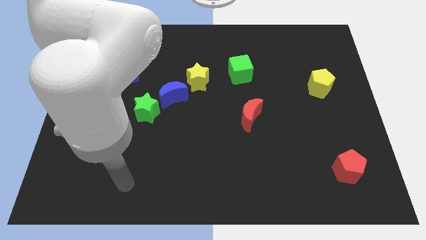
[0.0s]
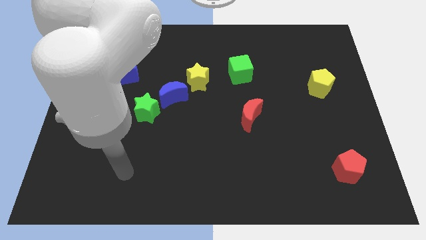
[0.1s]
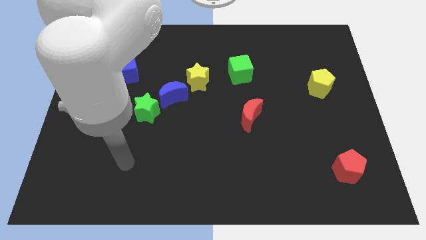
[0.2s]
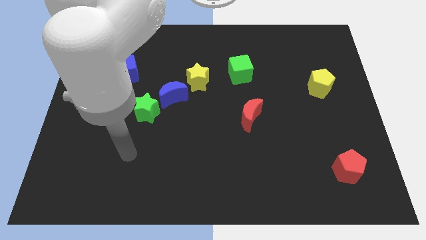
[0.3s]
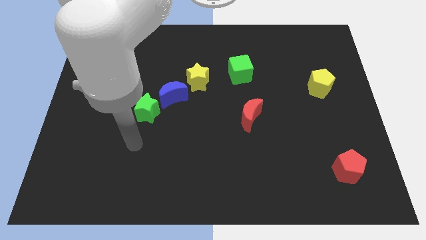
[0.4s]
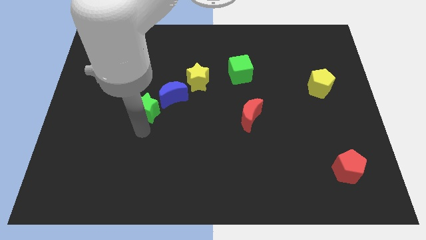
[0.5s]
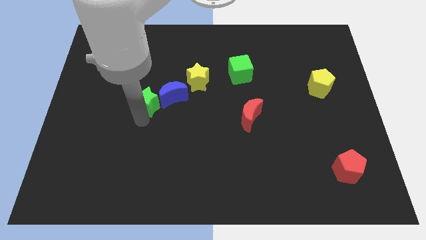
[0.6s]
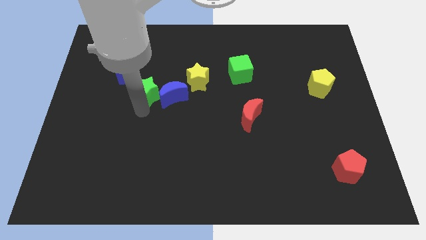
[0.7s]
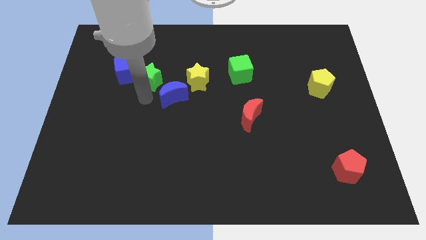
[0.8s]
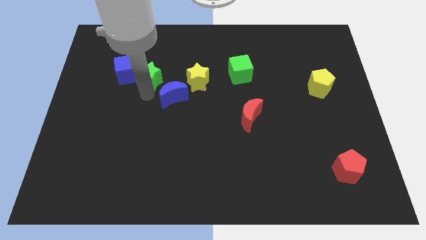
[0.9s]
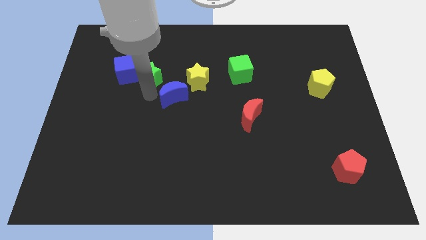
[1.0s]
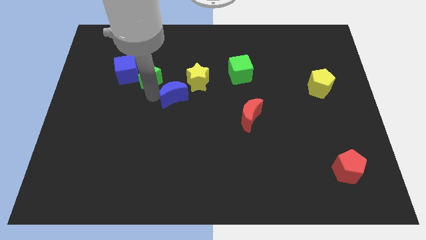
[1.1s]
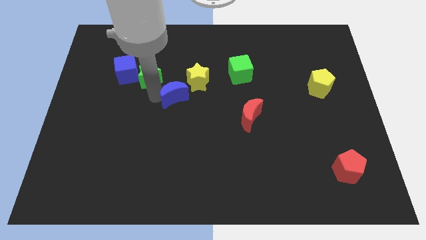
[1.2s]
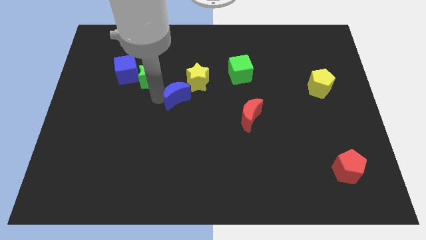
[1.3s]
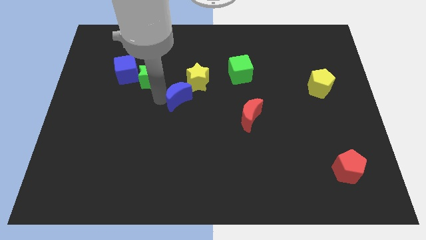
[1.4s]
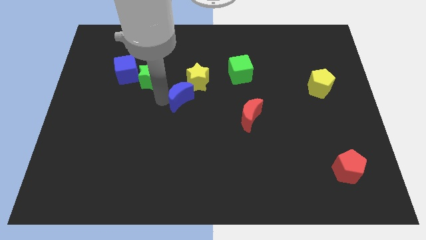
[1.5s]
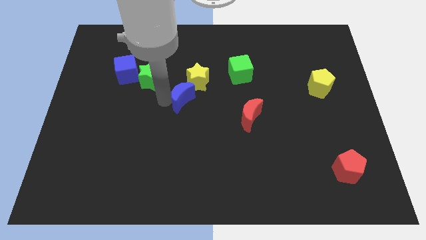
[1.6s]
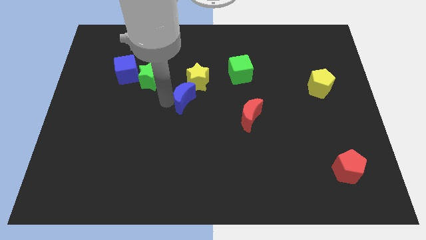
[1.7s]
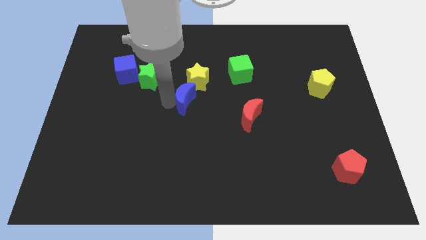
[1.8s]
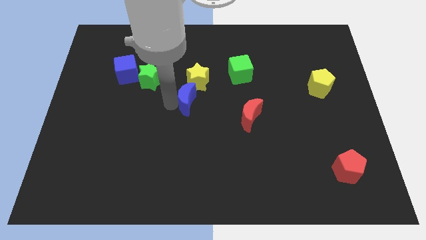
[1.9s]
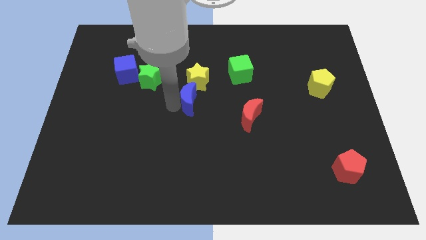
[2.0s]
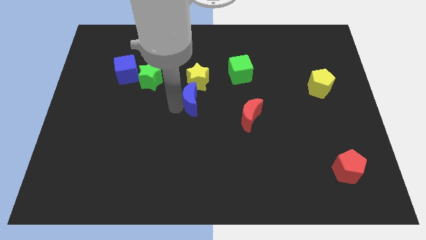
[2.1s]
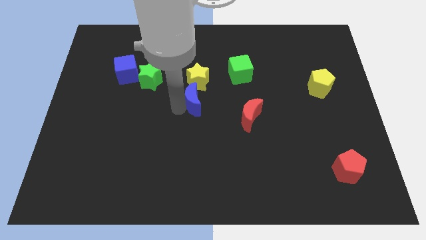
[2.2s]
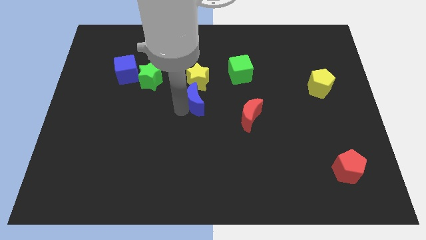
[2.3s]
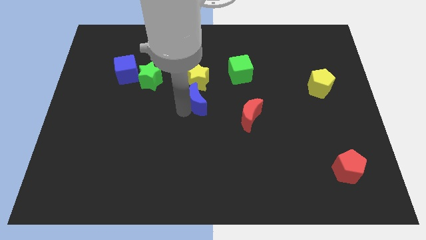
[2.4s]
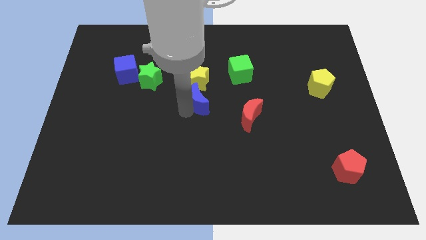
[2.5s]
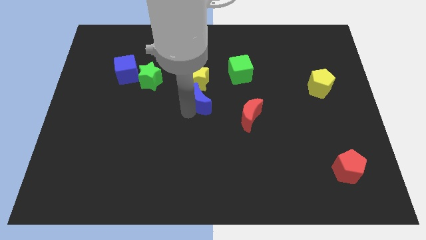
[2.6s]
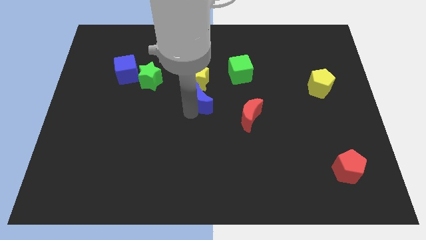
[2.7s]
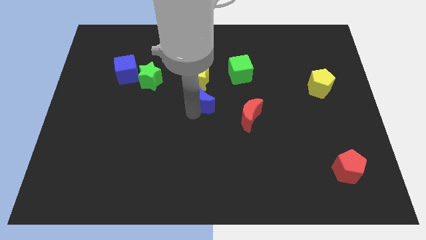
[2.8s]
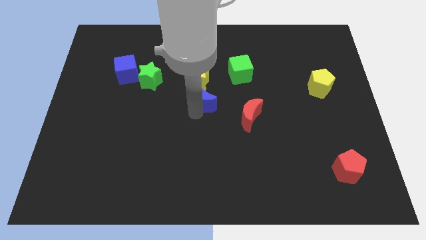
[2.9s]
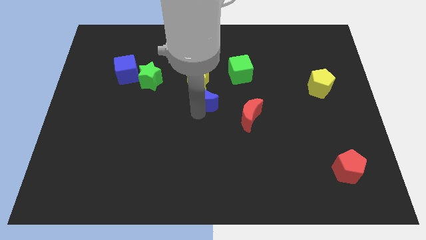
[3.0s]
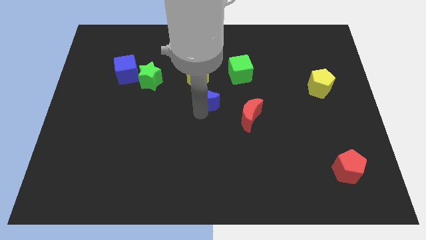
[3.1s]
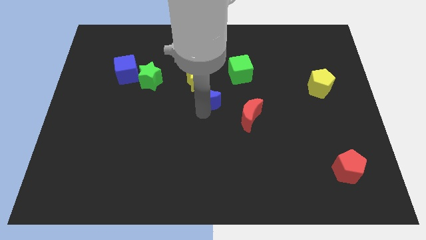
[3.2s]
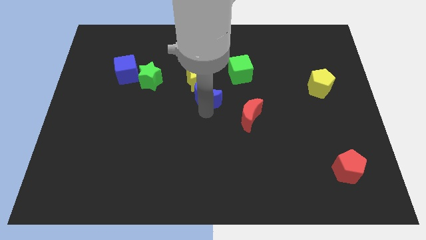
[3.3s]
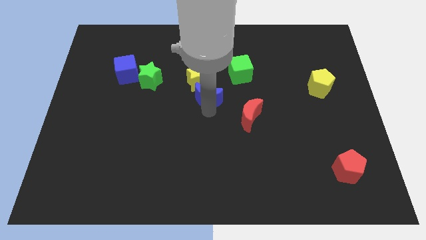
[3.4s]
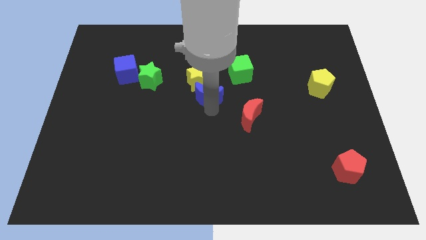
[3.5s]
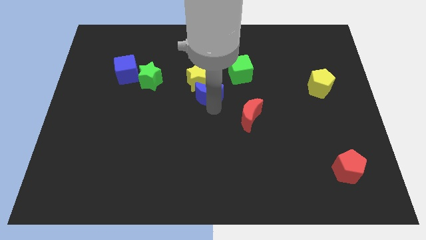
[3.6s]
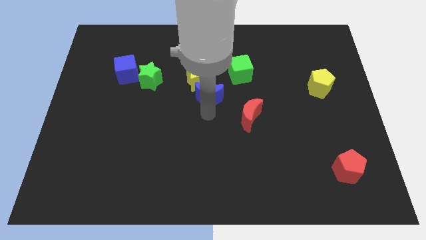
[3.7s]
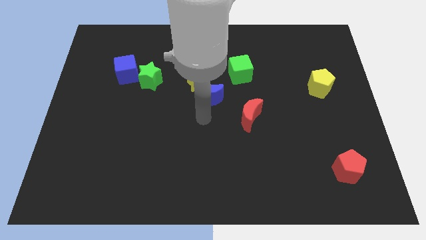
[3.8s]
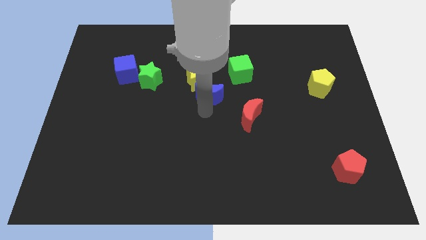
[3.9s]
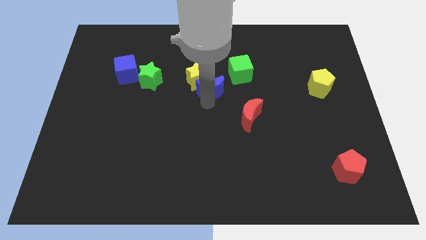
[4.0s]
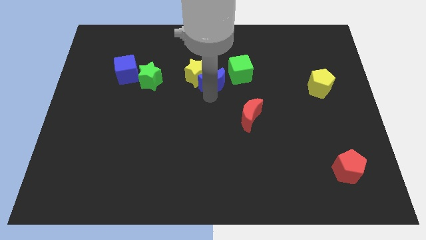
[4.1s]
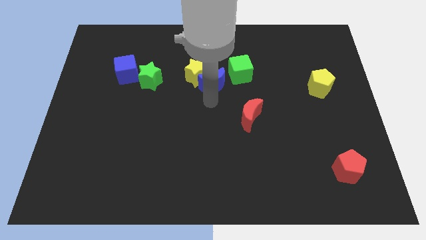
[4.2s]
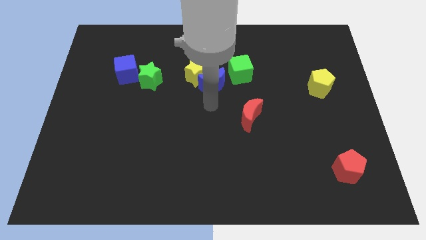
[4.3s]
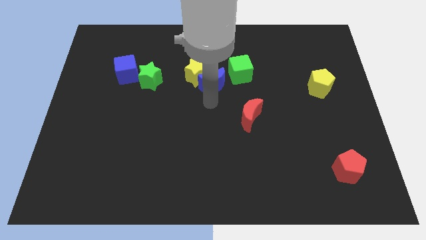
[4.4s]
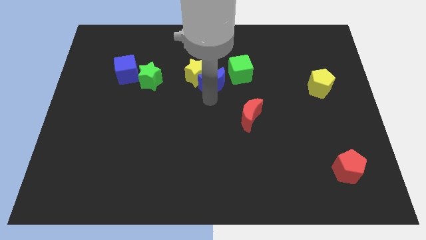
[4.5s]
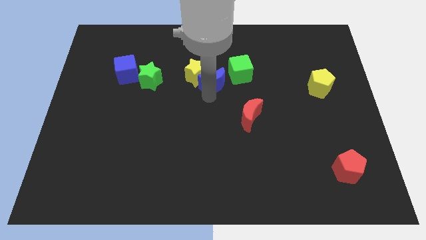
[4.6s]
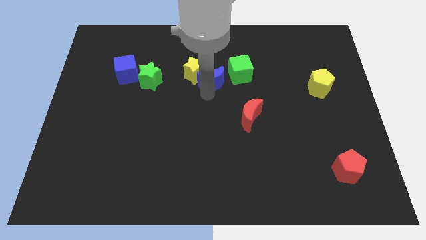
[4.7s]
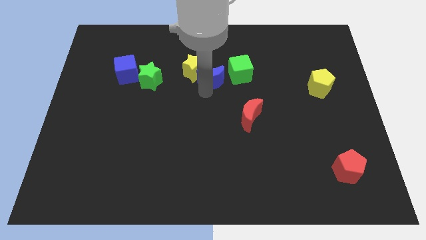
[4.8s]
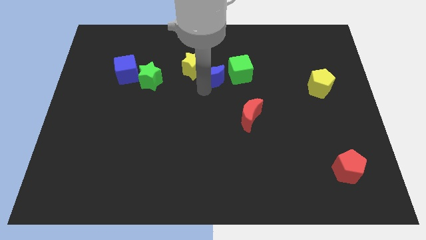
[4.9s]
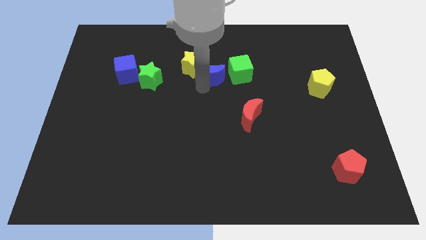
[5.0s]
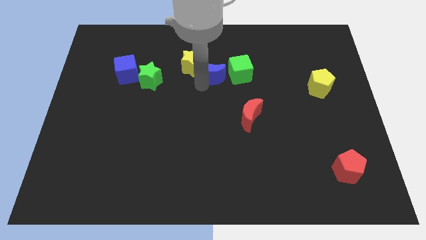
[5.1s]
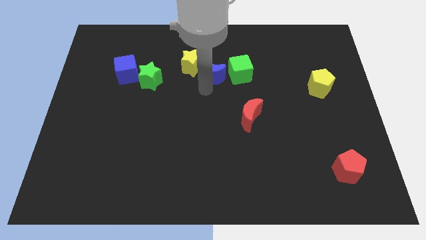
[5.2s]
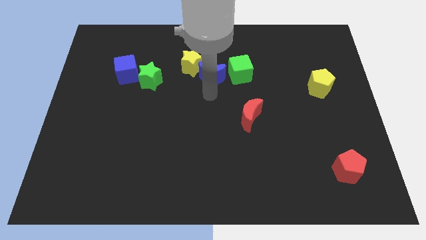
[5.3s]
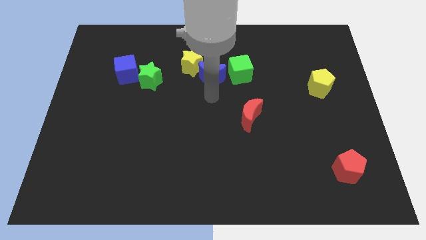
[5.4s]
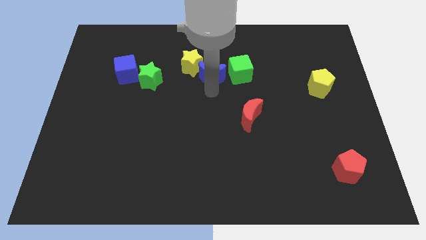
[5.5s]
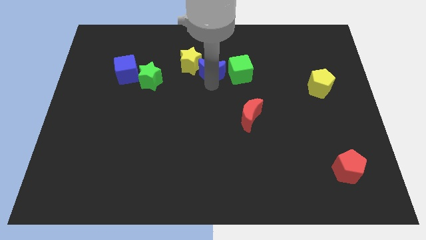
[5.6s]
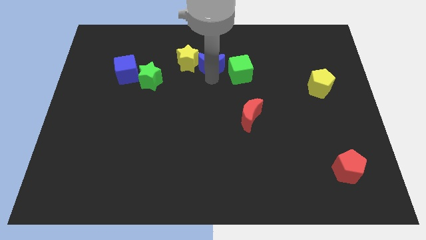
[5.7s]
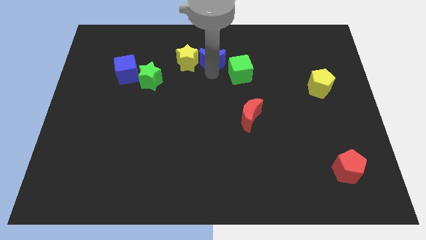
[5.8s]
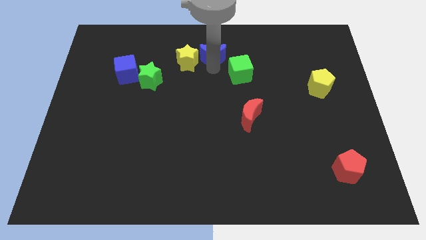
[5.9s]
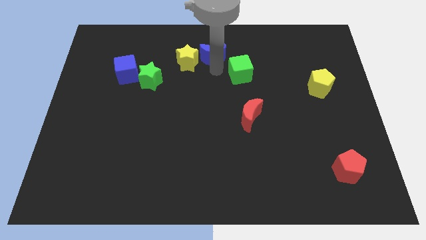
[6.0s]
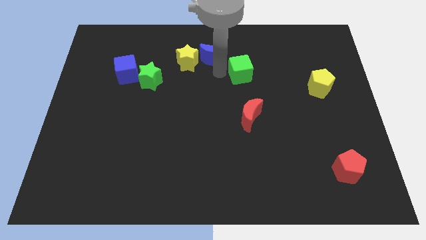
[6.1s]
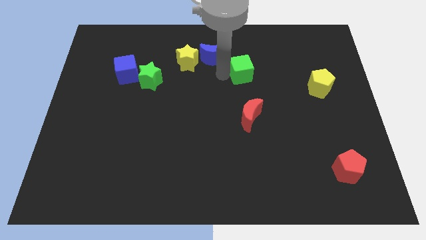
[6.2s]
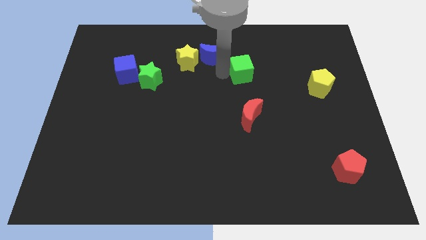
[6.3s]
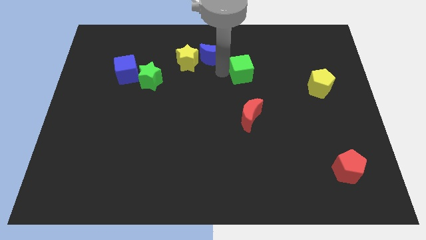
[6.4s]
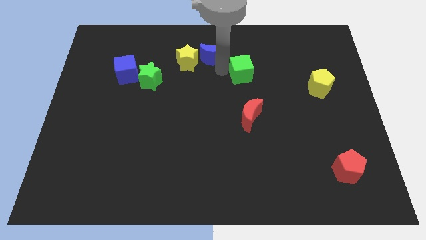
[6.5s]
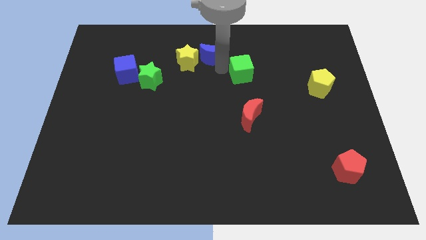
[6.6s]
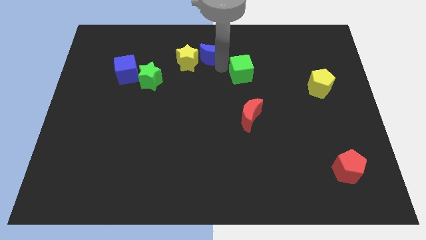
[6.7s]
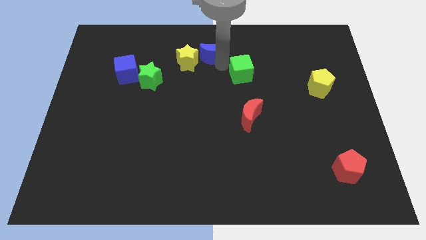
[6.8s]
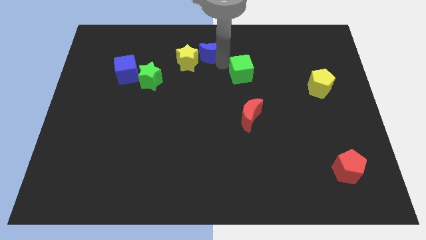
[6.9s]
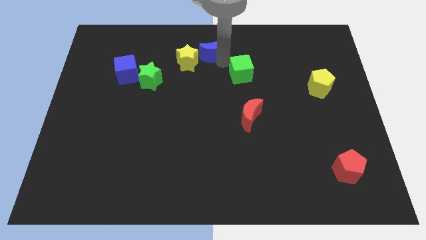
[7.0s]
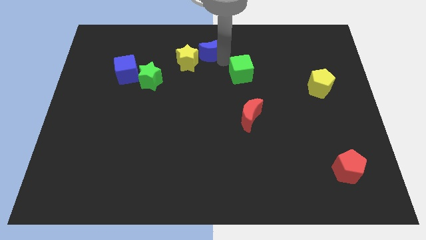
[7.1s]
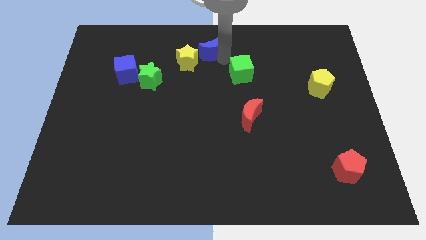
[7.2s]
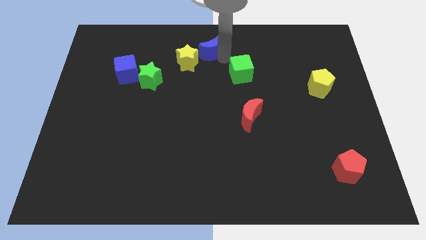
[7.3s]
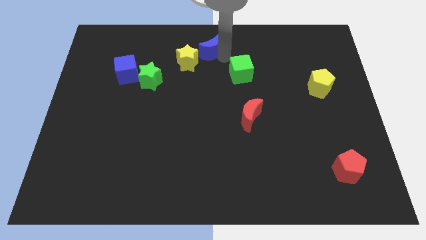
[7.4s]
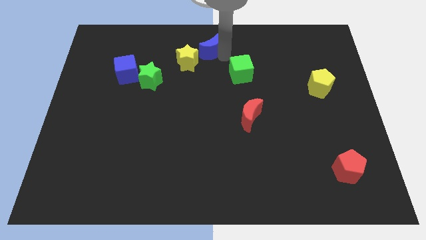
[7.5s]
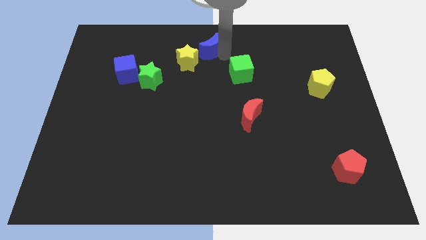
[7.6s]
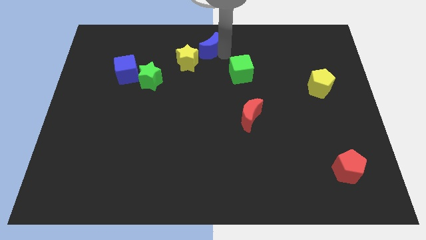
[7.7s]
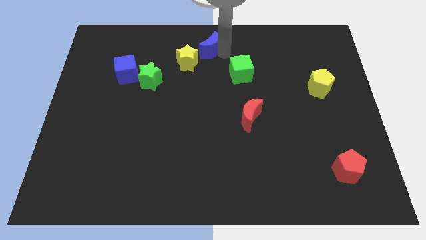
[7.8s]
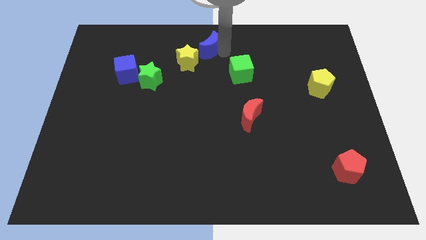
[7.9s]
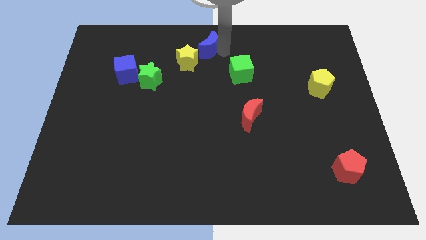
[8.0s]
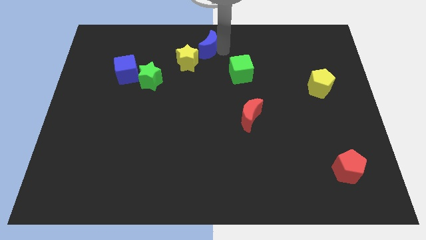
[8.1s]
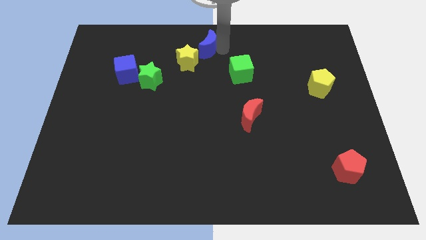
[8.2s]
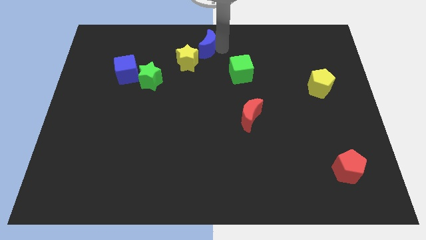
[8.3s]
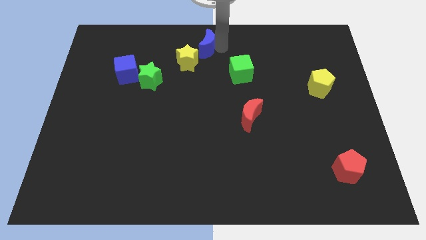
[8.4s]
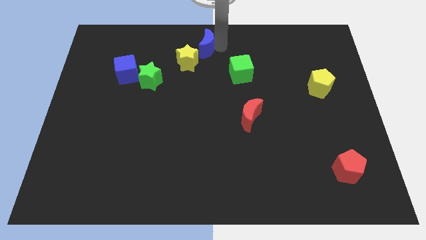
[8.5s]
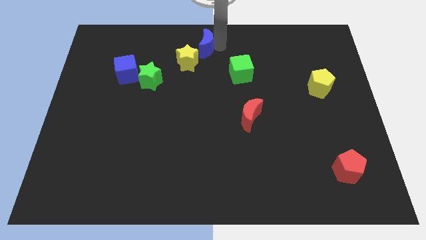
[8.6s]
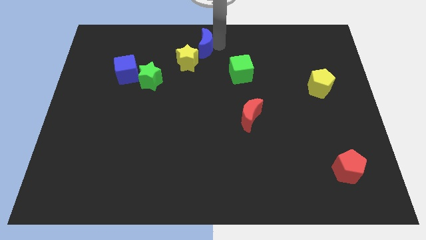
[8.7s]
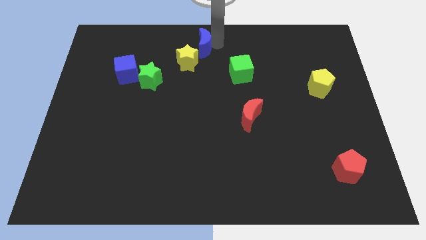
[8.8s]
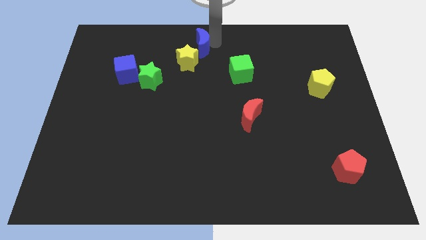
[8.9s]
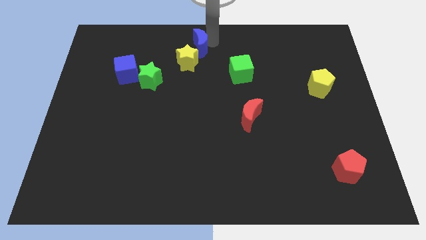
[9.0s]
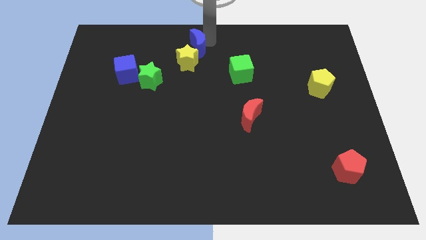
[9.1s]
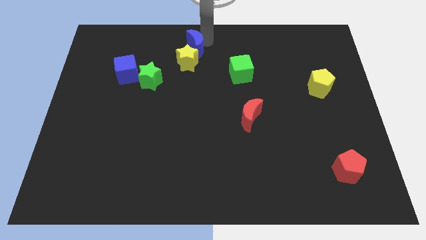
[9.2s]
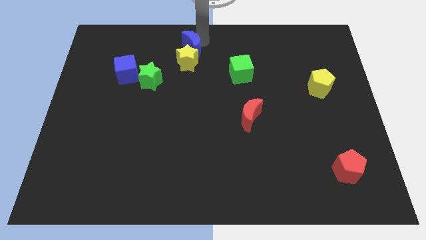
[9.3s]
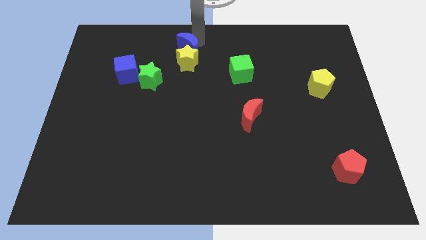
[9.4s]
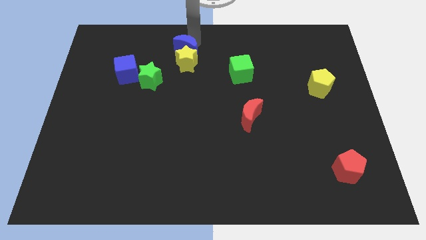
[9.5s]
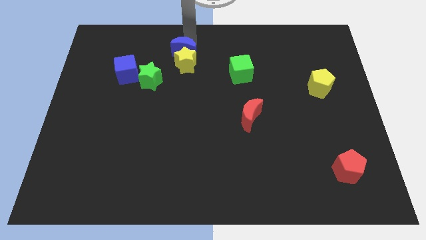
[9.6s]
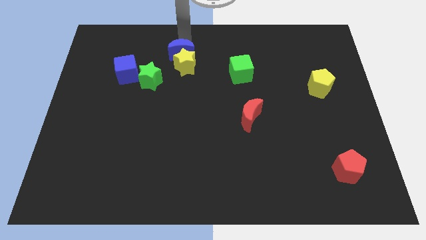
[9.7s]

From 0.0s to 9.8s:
push the blue moon to the top right side of the yellow star
